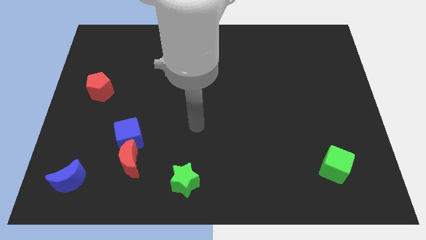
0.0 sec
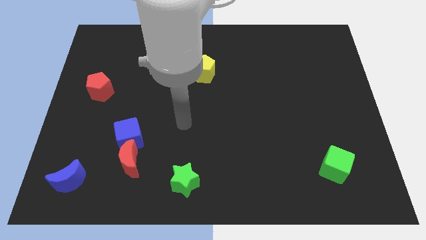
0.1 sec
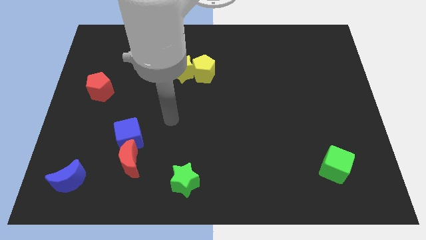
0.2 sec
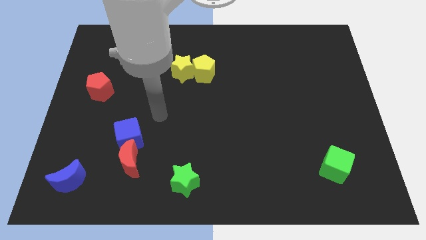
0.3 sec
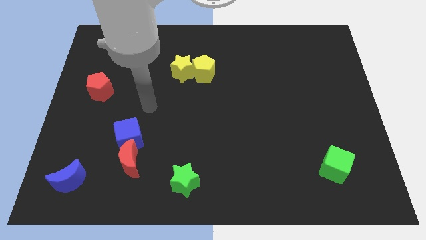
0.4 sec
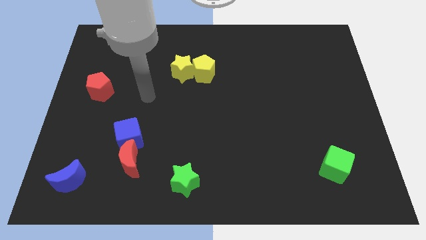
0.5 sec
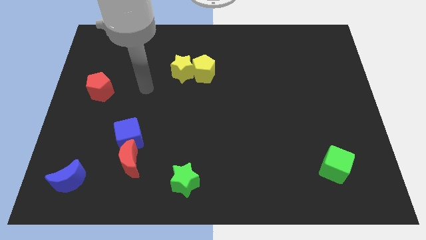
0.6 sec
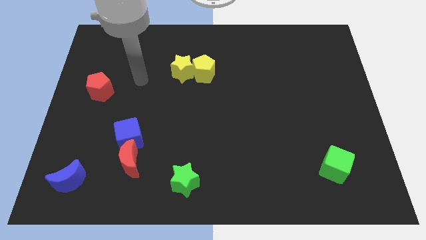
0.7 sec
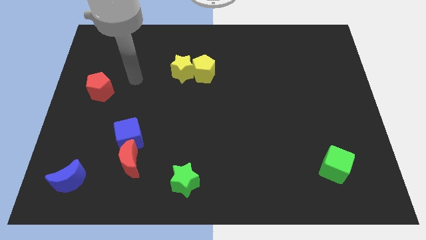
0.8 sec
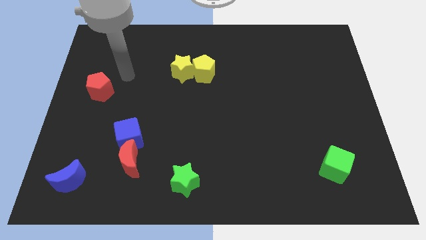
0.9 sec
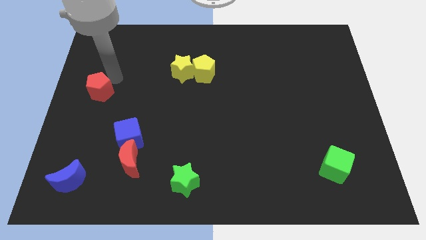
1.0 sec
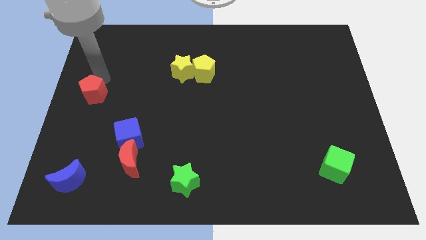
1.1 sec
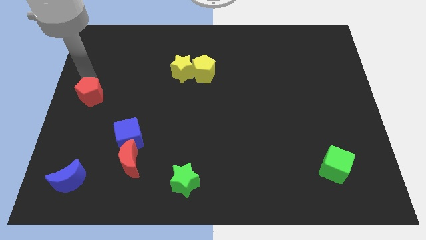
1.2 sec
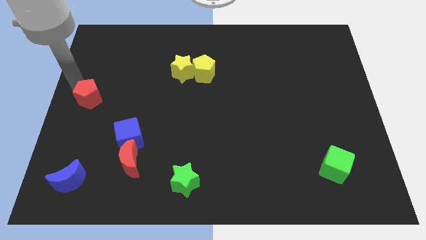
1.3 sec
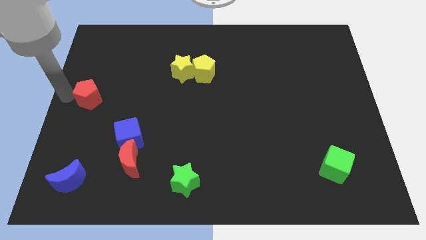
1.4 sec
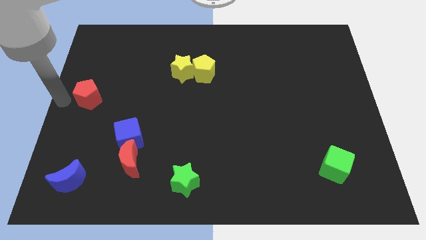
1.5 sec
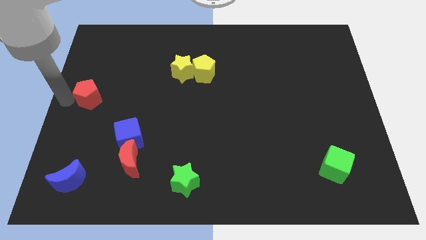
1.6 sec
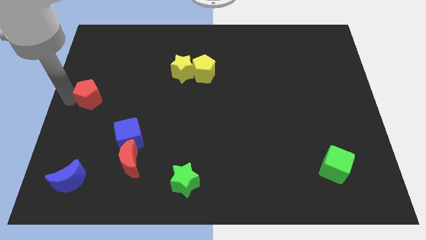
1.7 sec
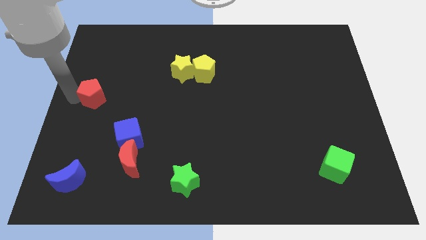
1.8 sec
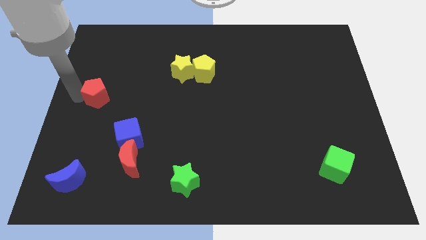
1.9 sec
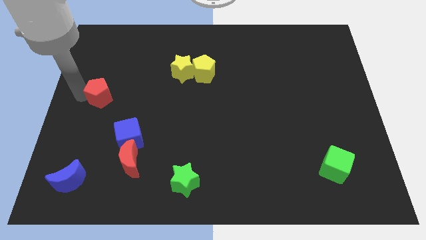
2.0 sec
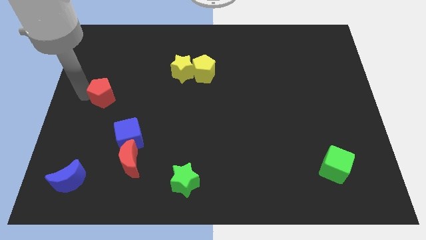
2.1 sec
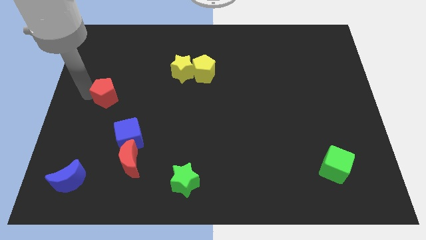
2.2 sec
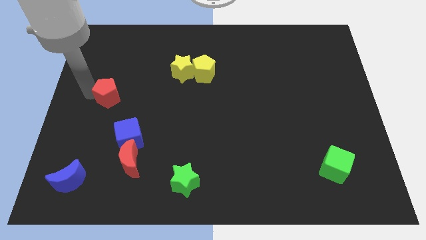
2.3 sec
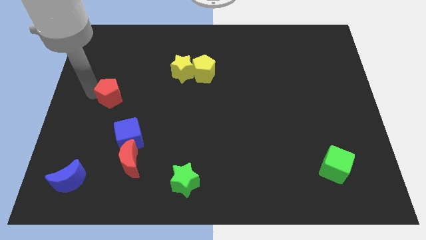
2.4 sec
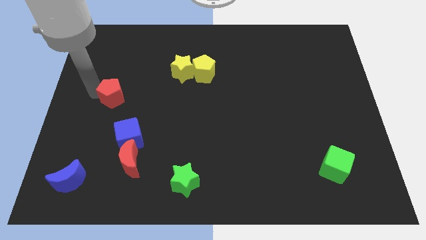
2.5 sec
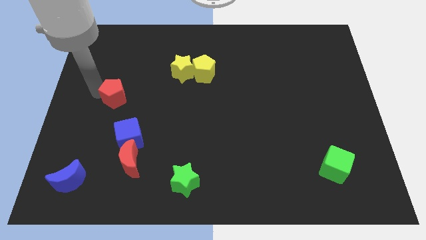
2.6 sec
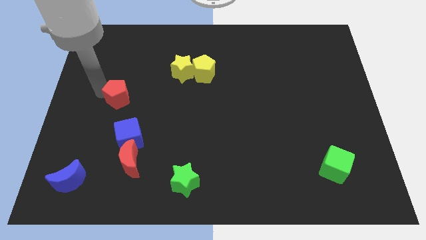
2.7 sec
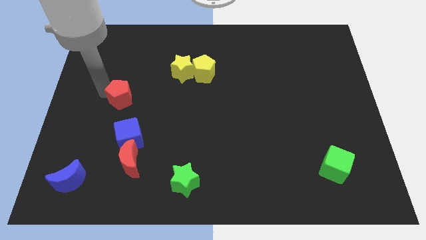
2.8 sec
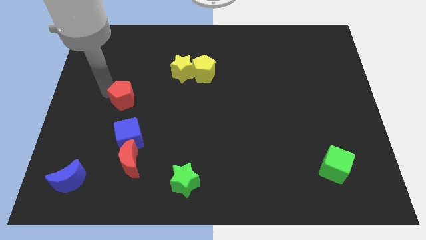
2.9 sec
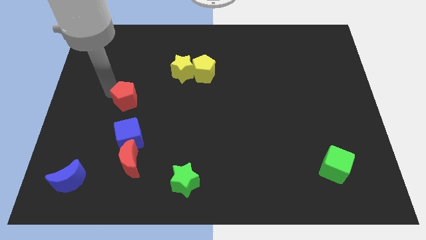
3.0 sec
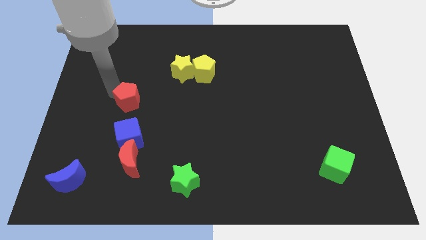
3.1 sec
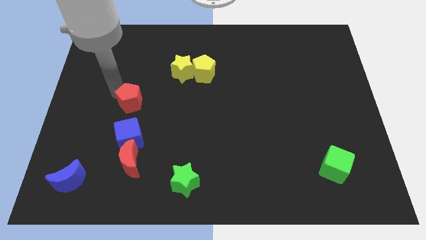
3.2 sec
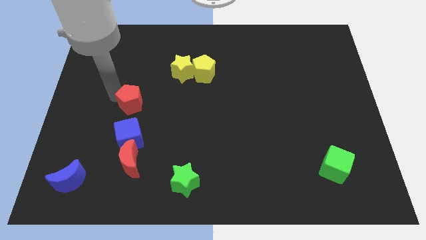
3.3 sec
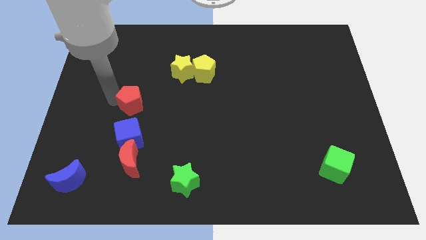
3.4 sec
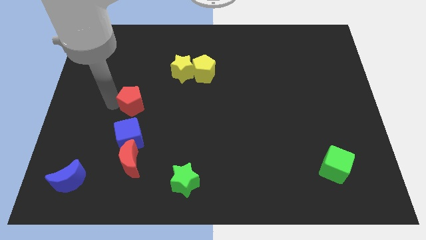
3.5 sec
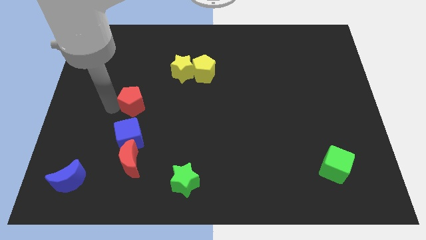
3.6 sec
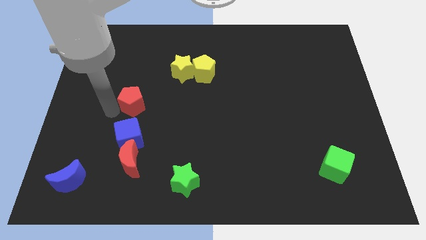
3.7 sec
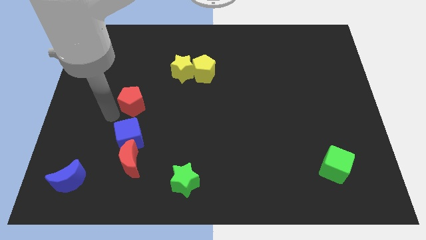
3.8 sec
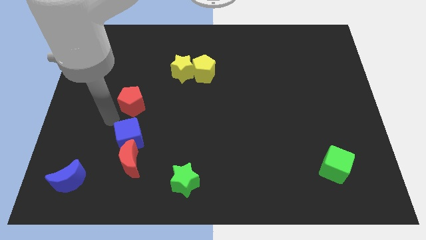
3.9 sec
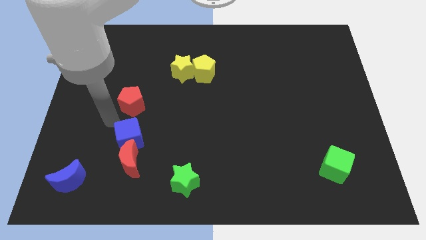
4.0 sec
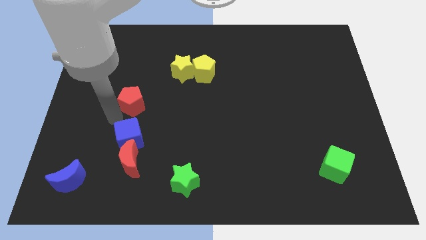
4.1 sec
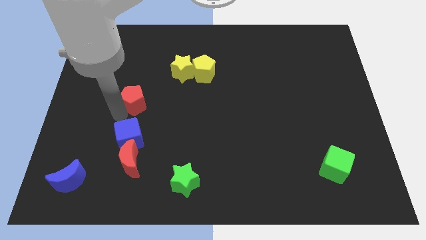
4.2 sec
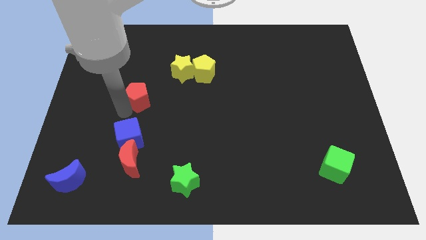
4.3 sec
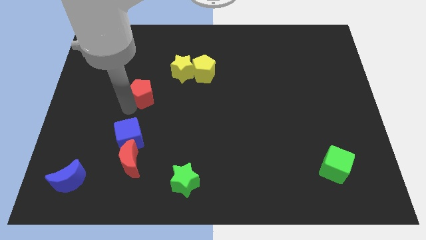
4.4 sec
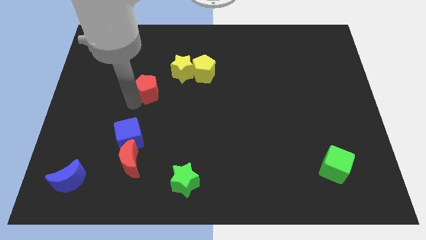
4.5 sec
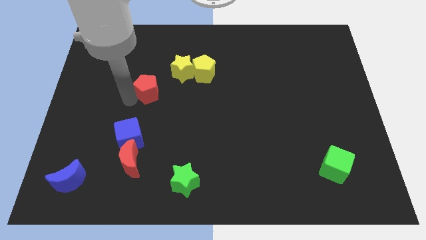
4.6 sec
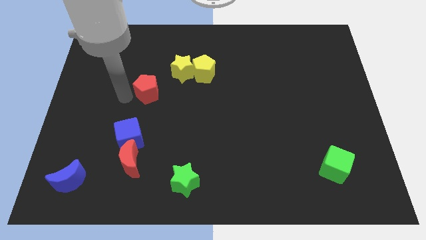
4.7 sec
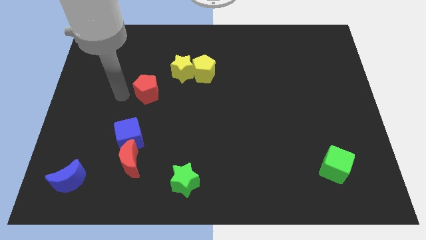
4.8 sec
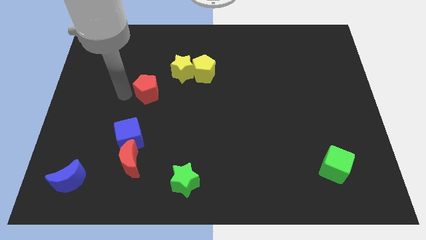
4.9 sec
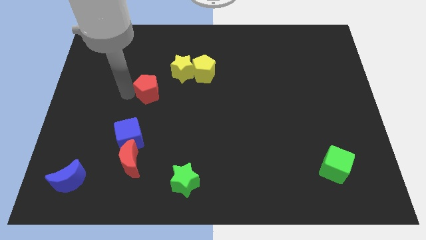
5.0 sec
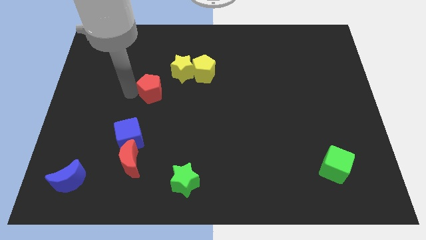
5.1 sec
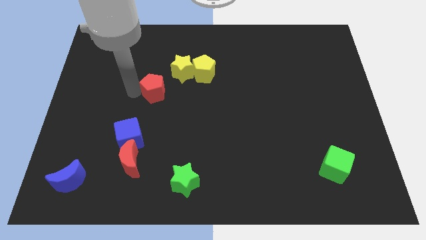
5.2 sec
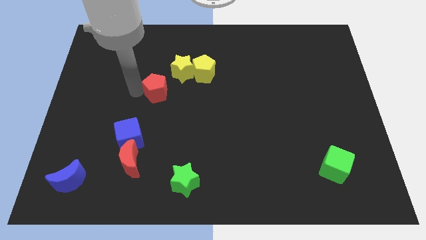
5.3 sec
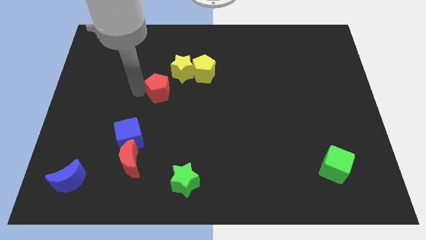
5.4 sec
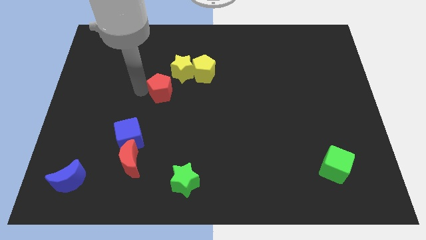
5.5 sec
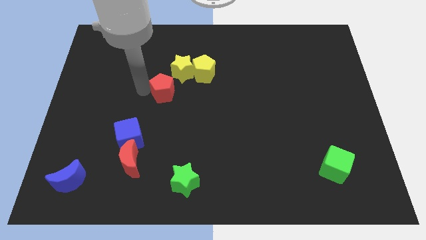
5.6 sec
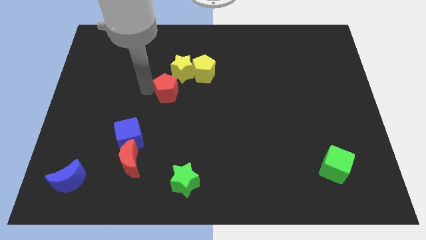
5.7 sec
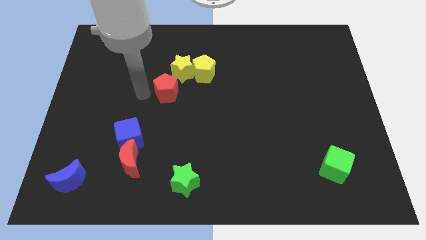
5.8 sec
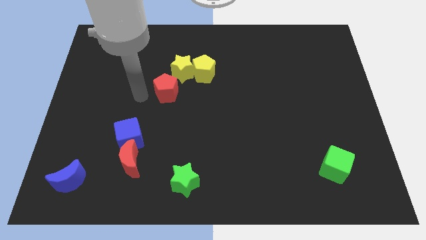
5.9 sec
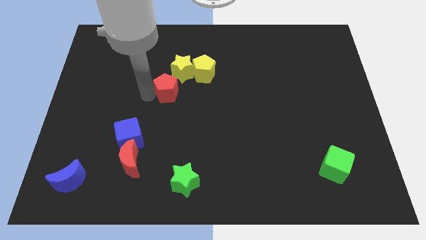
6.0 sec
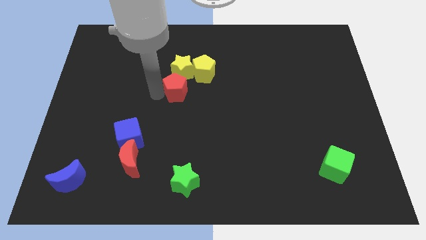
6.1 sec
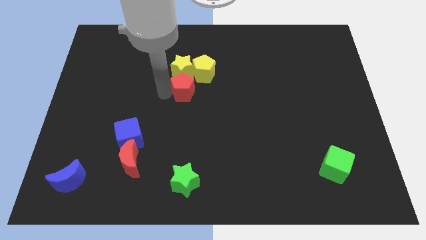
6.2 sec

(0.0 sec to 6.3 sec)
push the red pentagon to the bottom right of the yellow star

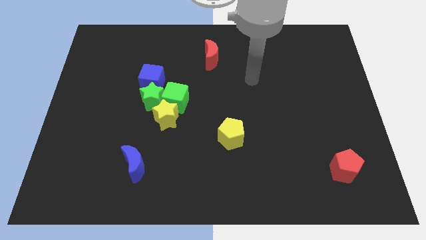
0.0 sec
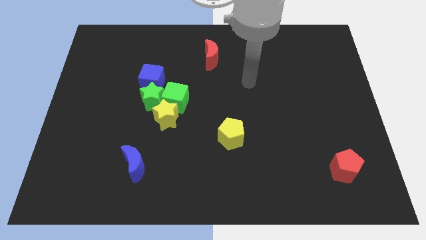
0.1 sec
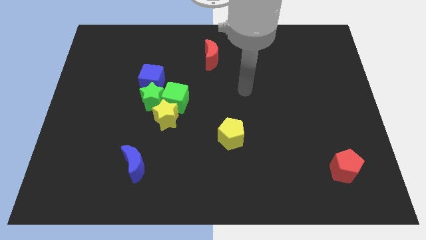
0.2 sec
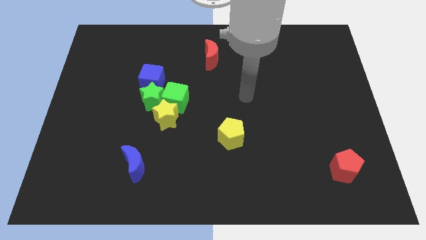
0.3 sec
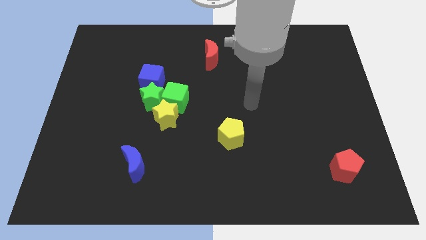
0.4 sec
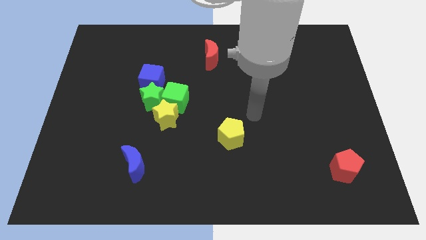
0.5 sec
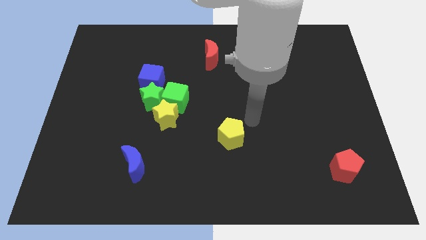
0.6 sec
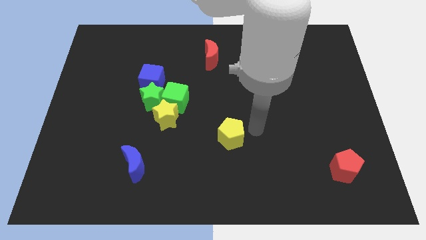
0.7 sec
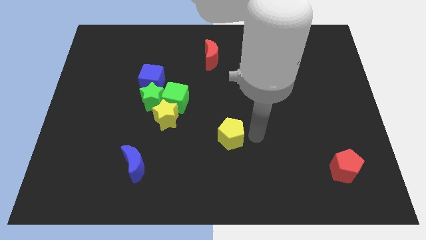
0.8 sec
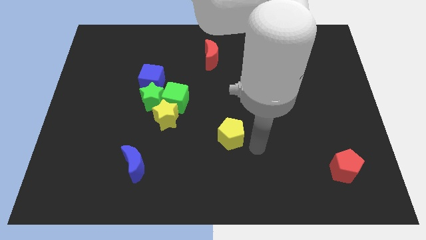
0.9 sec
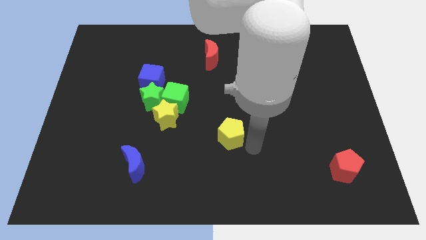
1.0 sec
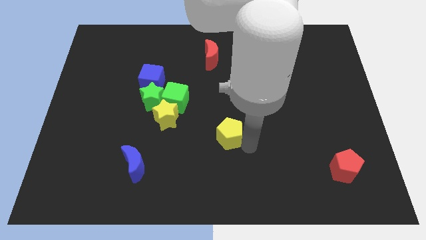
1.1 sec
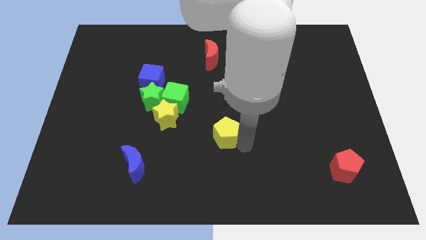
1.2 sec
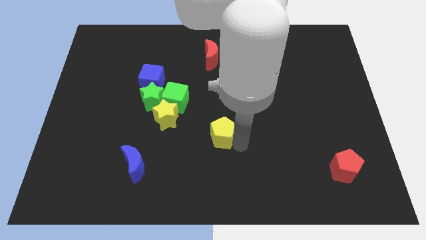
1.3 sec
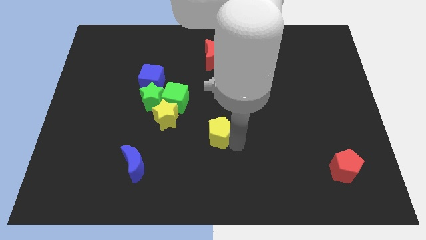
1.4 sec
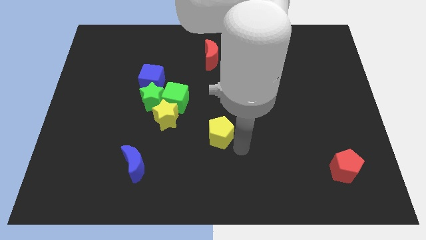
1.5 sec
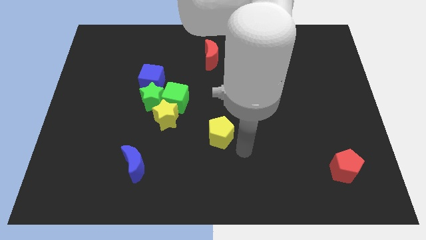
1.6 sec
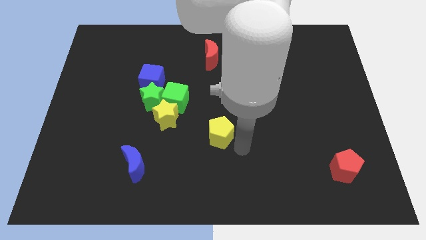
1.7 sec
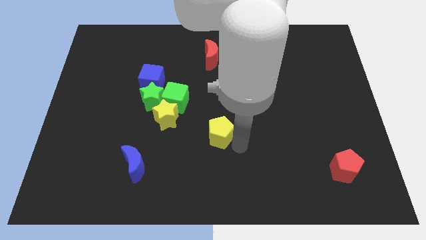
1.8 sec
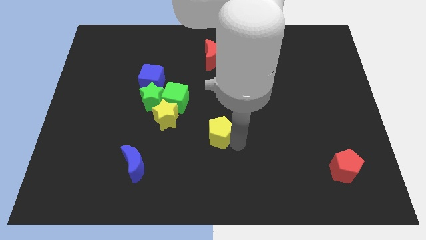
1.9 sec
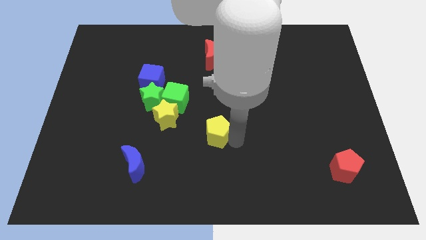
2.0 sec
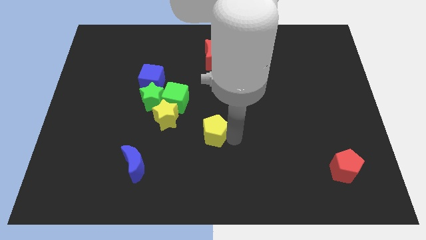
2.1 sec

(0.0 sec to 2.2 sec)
move the yellow pentagon to the bottom right side of the green cube
